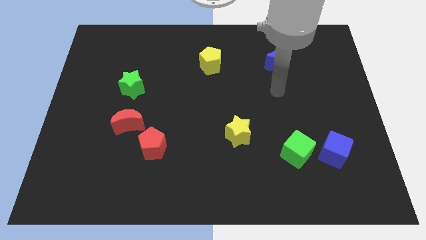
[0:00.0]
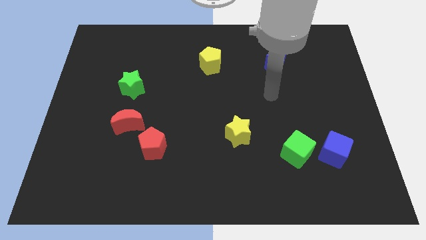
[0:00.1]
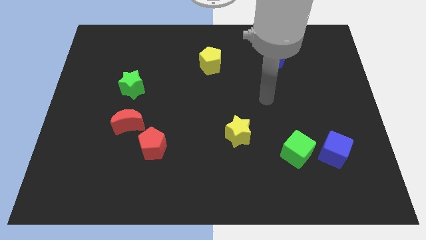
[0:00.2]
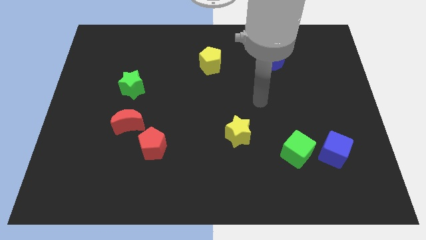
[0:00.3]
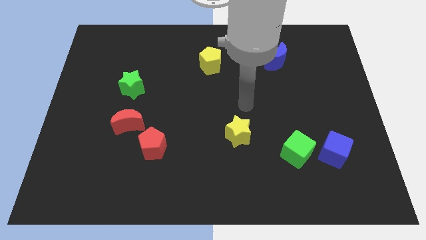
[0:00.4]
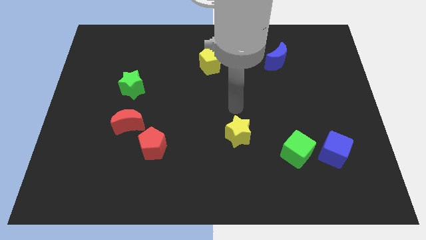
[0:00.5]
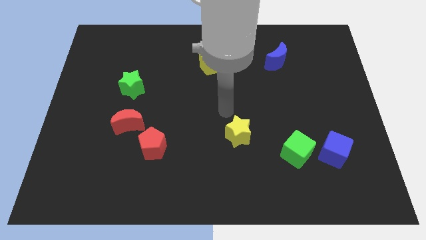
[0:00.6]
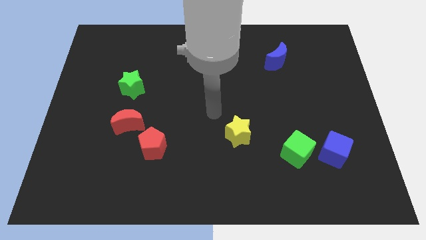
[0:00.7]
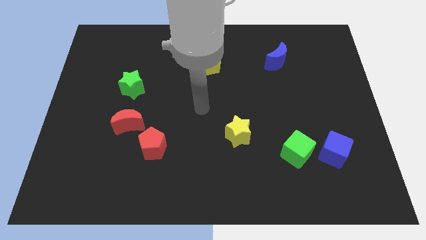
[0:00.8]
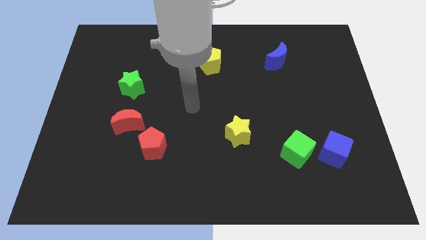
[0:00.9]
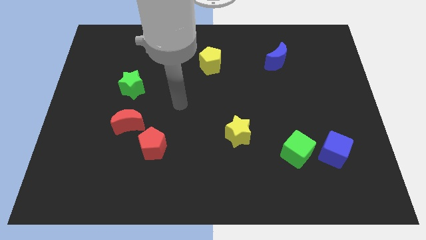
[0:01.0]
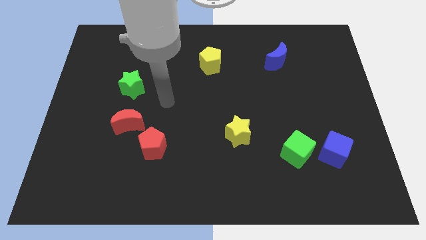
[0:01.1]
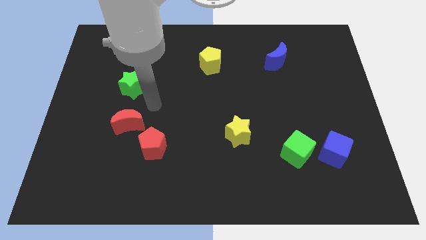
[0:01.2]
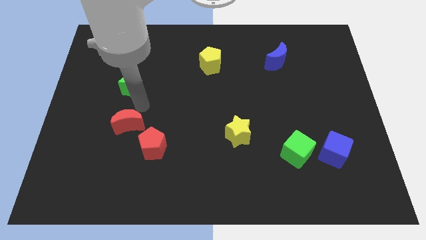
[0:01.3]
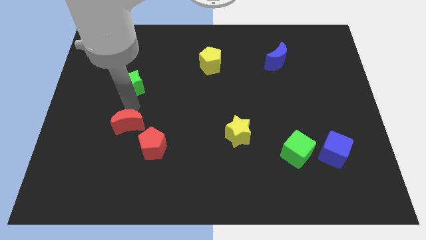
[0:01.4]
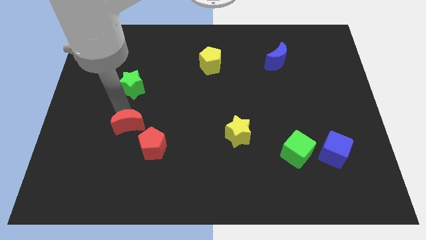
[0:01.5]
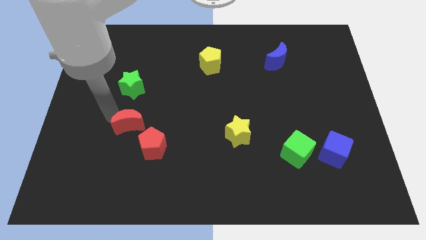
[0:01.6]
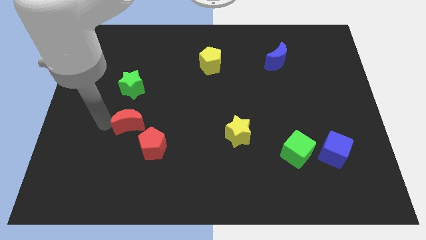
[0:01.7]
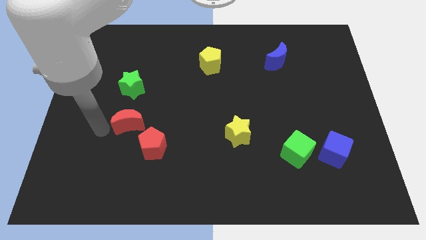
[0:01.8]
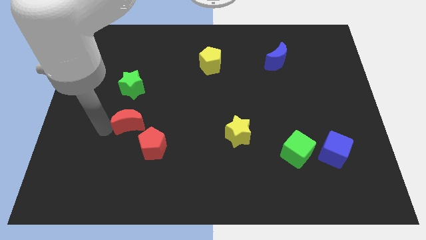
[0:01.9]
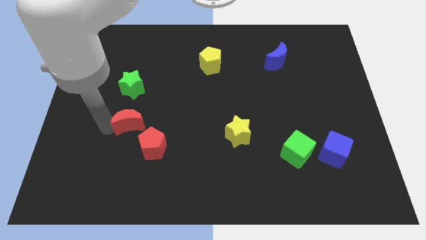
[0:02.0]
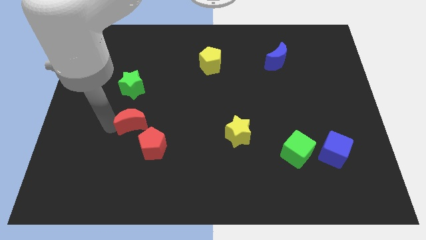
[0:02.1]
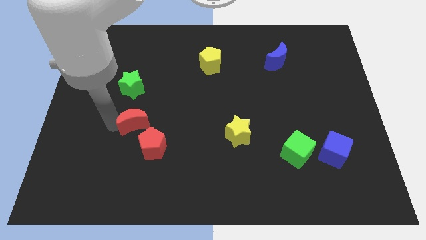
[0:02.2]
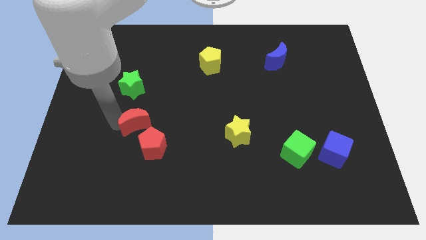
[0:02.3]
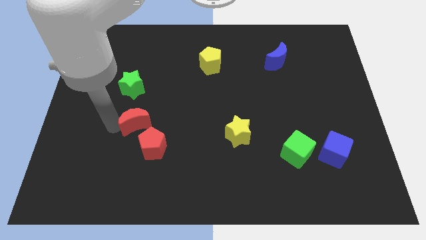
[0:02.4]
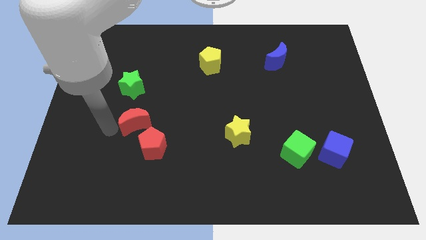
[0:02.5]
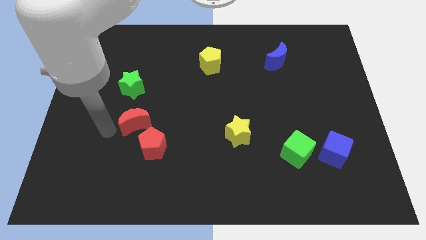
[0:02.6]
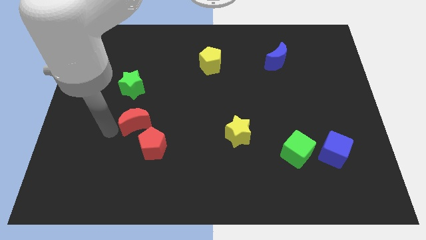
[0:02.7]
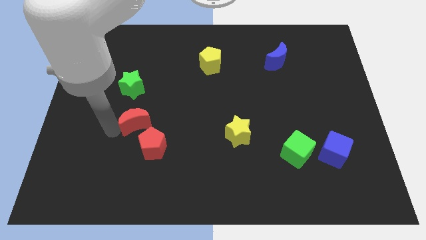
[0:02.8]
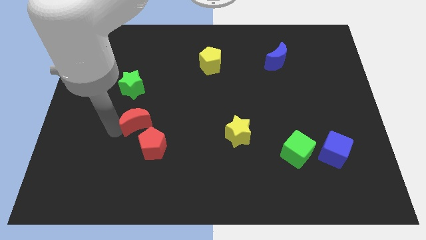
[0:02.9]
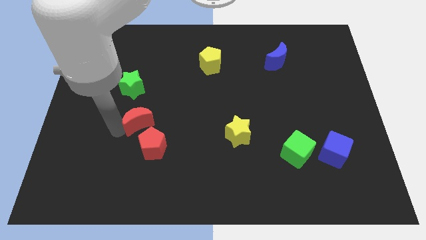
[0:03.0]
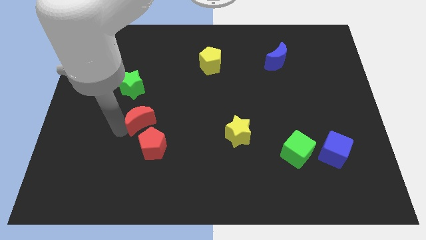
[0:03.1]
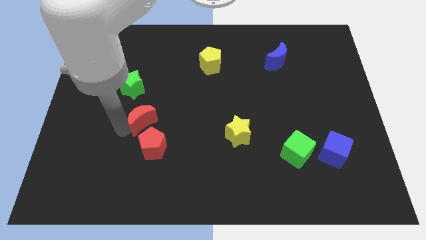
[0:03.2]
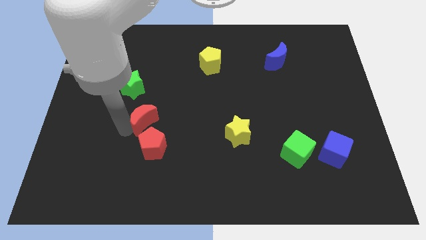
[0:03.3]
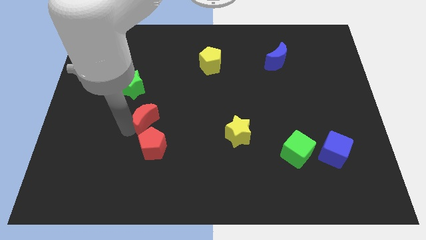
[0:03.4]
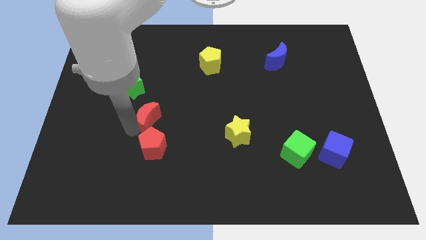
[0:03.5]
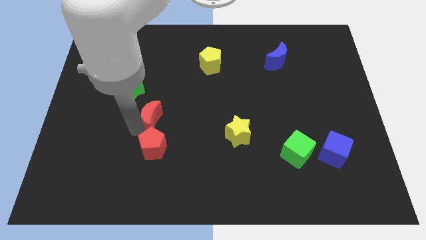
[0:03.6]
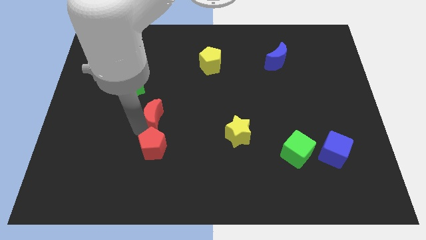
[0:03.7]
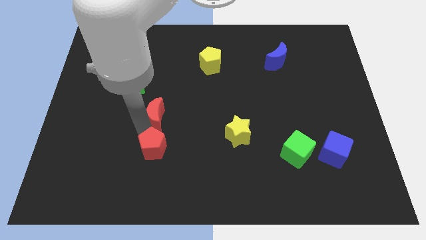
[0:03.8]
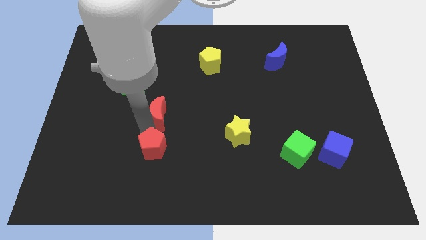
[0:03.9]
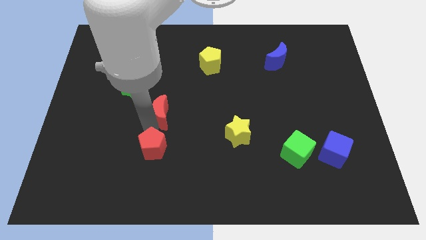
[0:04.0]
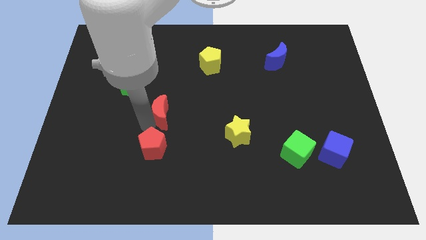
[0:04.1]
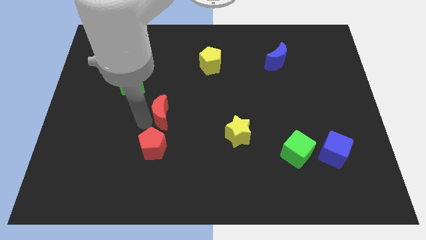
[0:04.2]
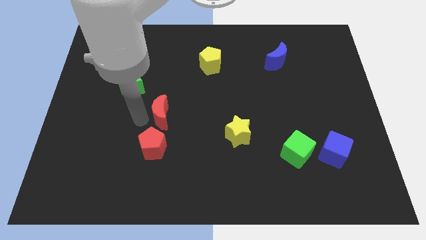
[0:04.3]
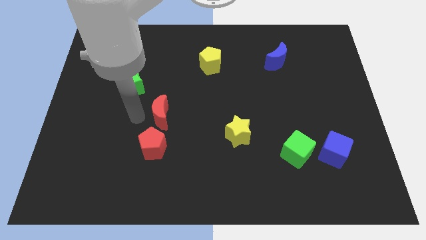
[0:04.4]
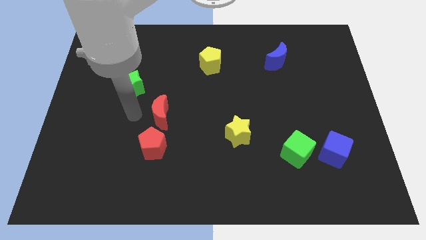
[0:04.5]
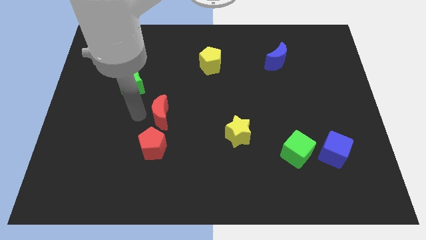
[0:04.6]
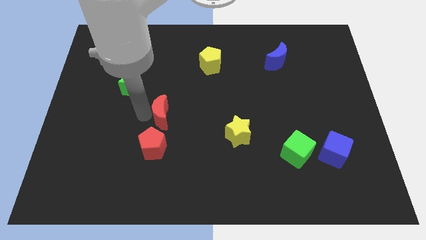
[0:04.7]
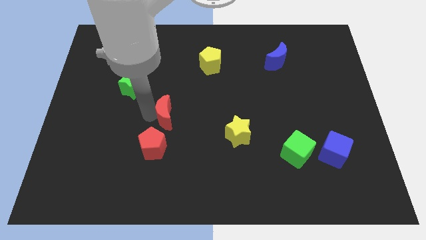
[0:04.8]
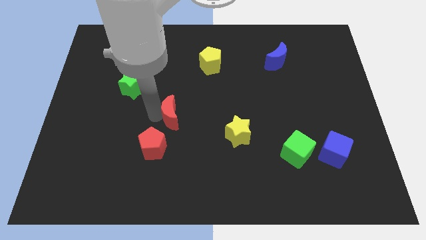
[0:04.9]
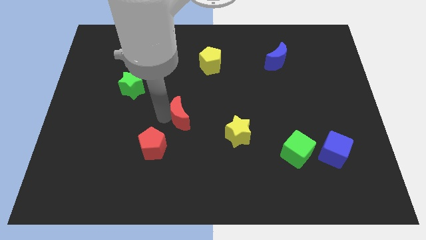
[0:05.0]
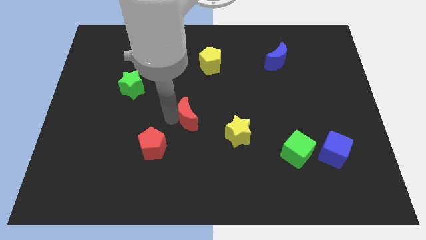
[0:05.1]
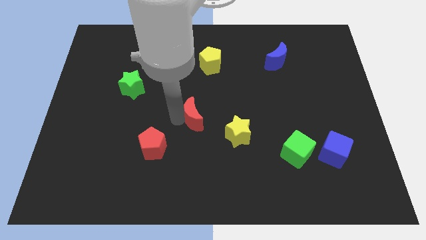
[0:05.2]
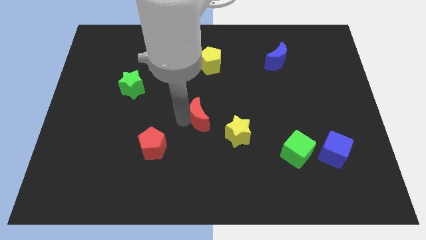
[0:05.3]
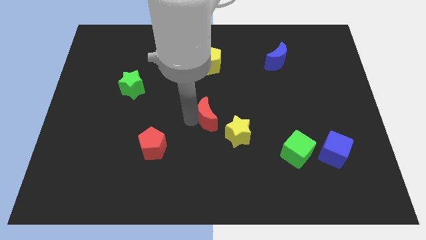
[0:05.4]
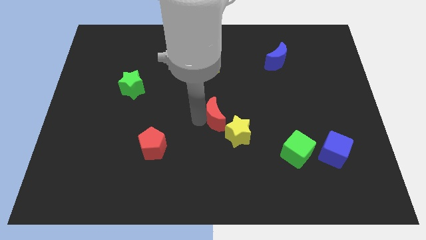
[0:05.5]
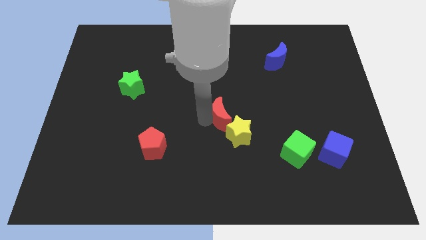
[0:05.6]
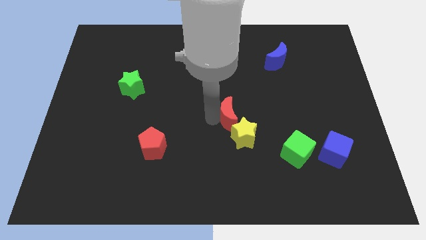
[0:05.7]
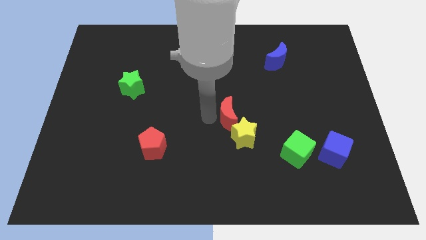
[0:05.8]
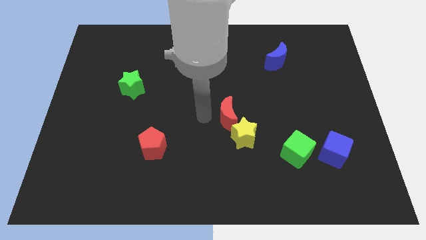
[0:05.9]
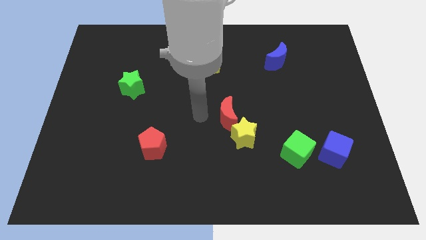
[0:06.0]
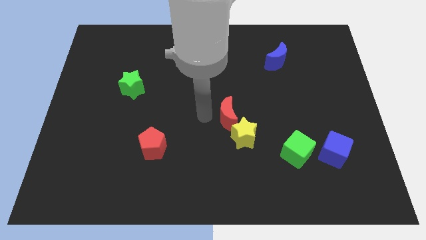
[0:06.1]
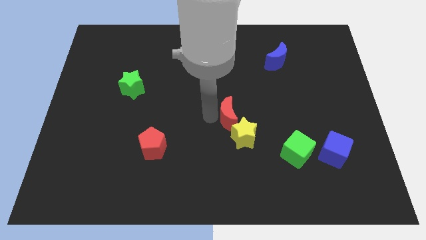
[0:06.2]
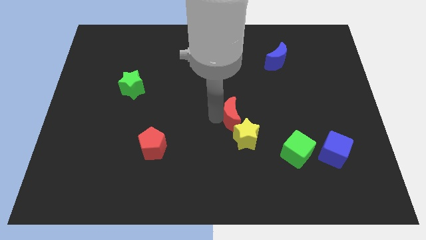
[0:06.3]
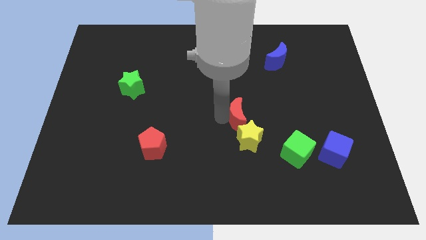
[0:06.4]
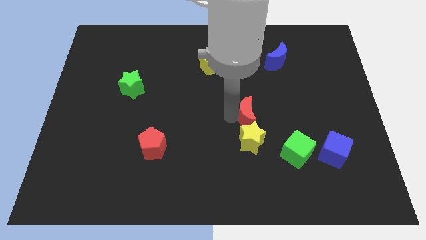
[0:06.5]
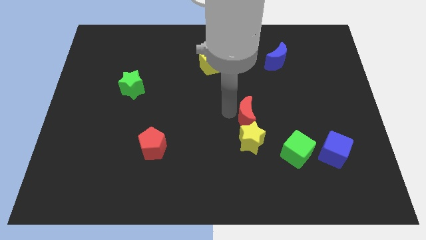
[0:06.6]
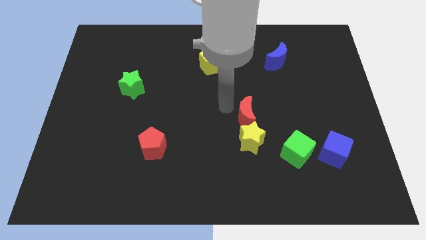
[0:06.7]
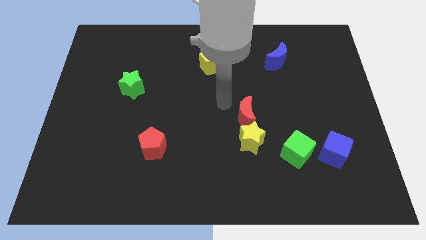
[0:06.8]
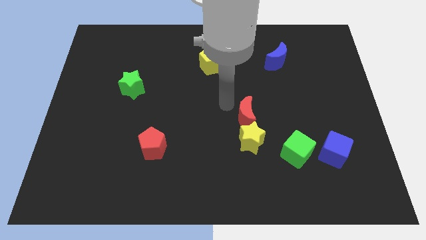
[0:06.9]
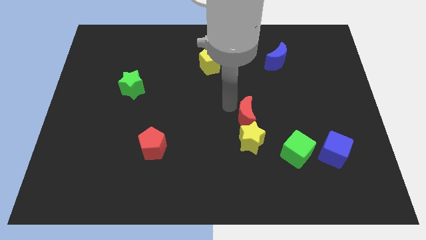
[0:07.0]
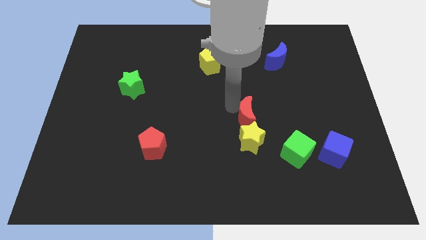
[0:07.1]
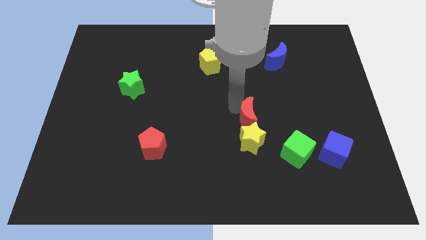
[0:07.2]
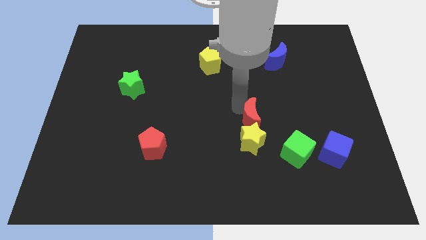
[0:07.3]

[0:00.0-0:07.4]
slide the red moon to the top left side of the green cube

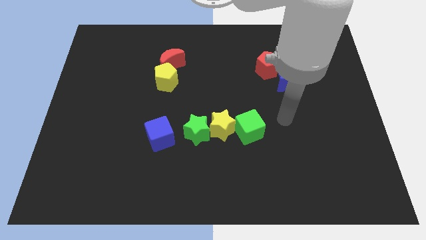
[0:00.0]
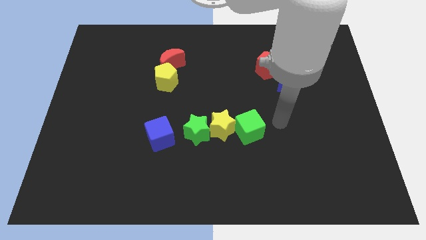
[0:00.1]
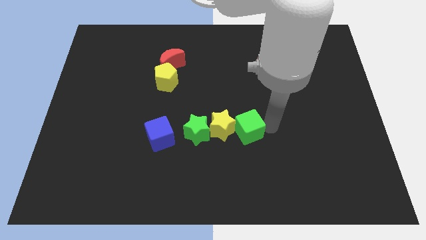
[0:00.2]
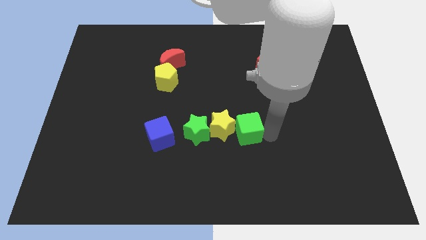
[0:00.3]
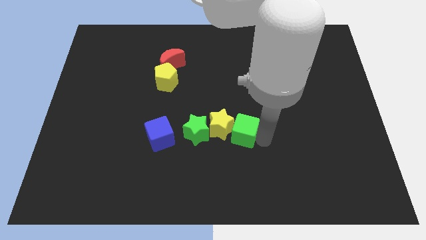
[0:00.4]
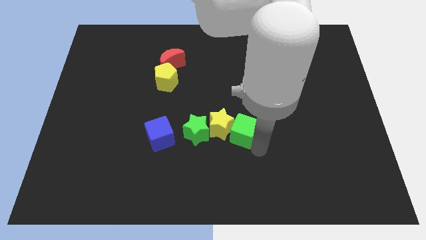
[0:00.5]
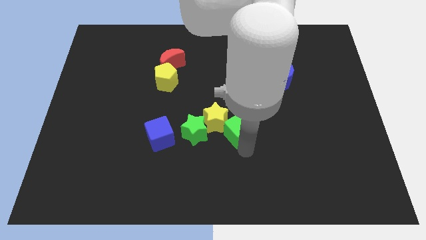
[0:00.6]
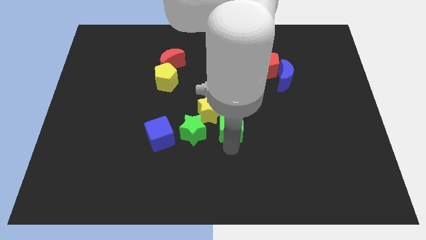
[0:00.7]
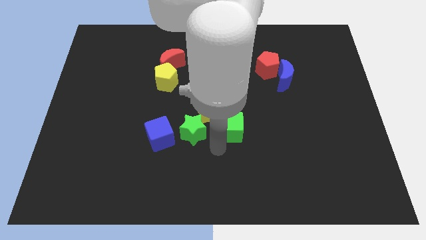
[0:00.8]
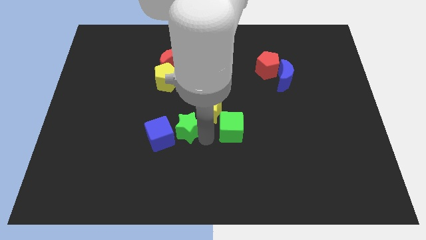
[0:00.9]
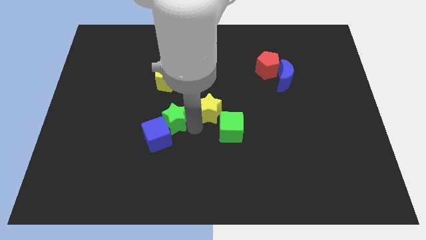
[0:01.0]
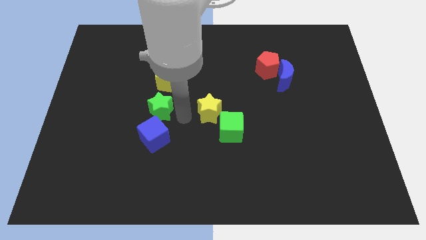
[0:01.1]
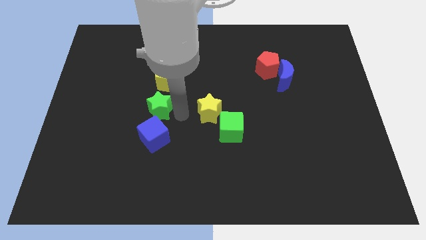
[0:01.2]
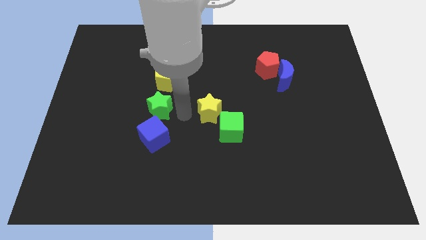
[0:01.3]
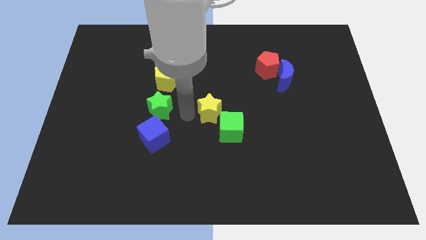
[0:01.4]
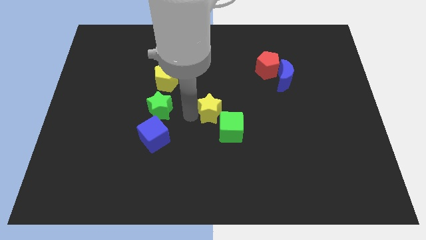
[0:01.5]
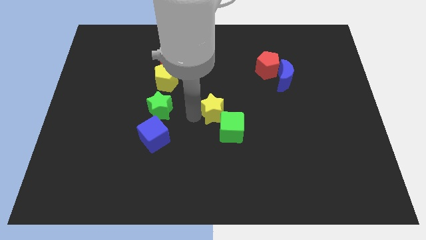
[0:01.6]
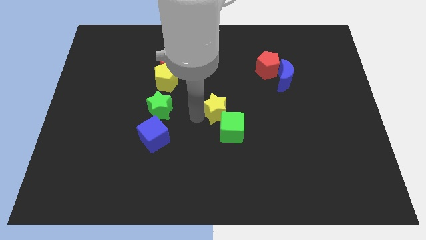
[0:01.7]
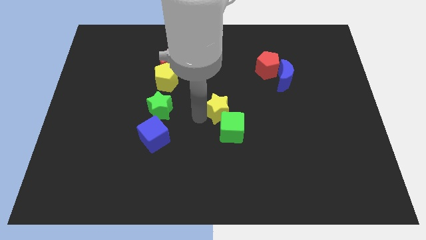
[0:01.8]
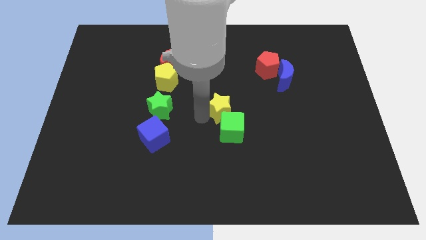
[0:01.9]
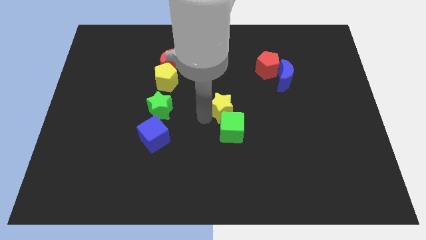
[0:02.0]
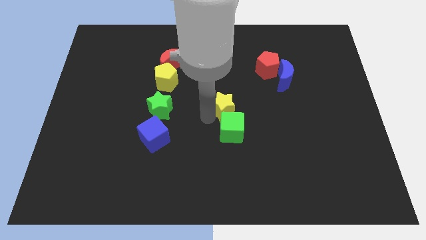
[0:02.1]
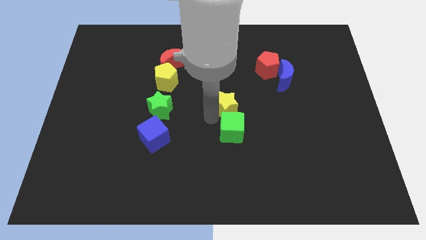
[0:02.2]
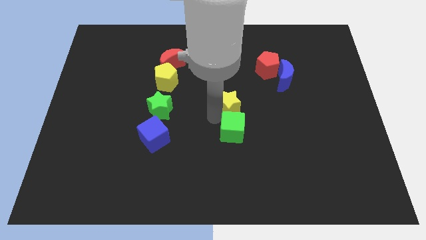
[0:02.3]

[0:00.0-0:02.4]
push the yellow star diagonally up and to the right of the green cube
